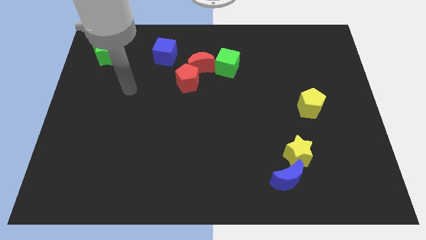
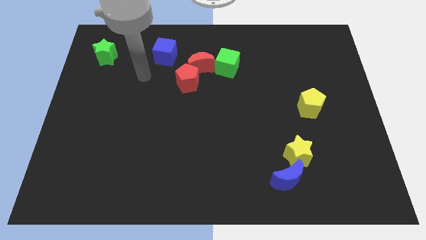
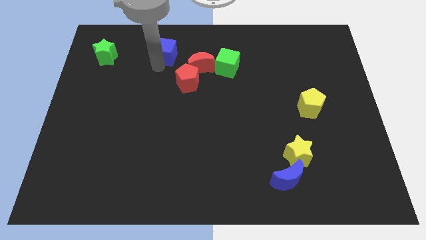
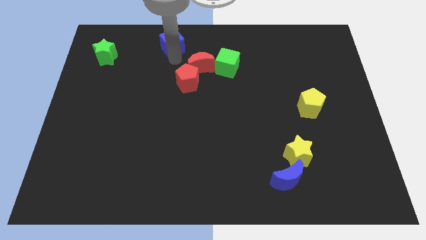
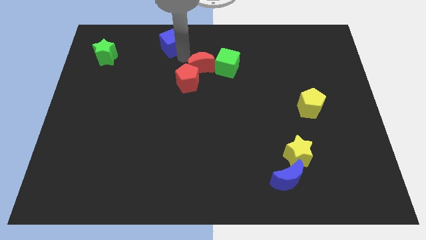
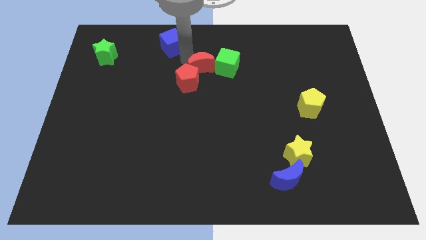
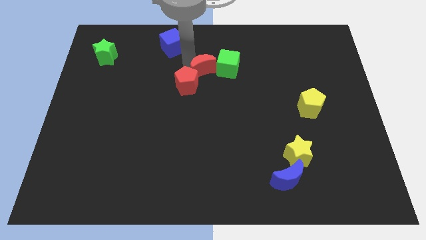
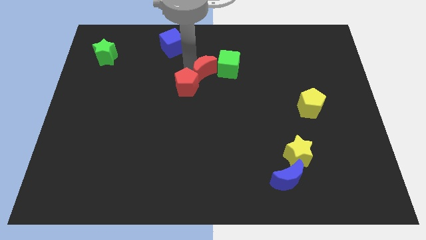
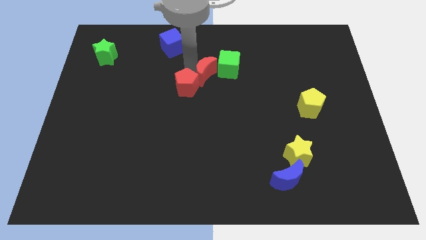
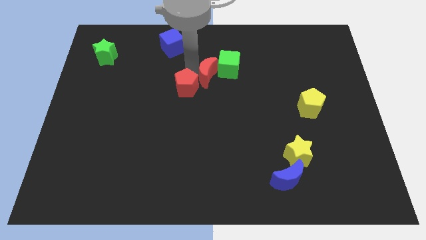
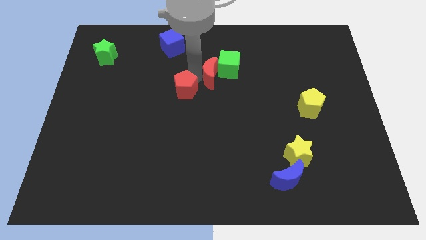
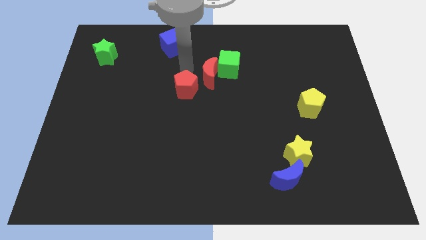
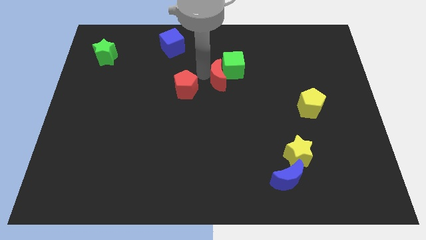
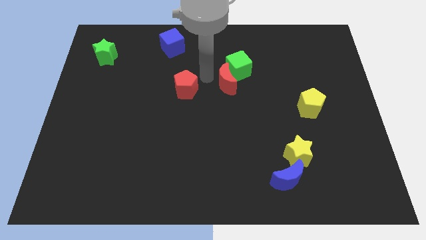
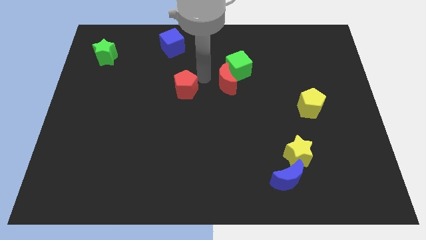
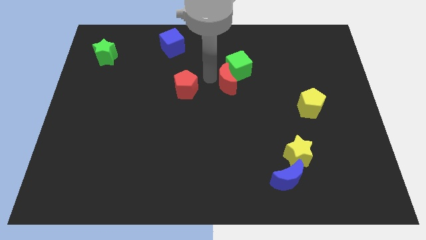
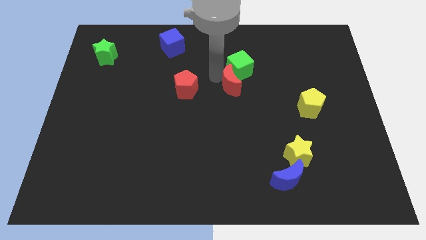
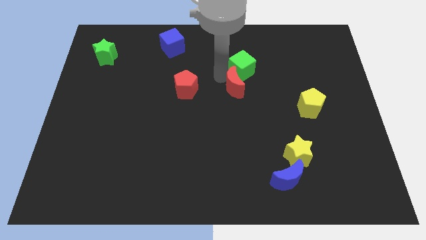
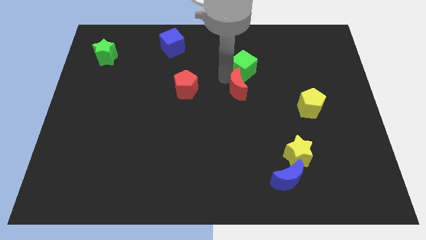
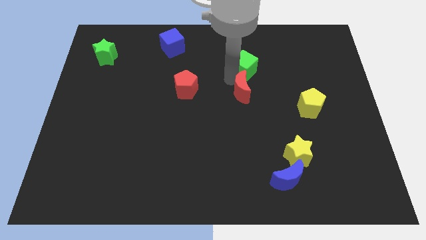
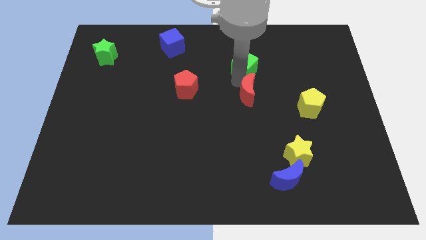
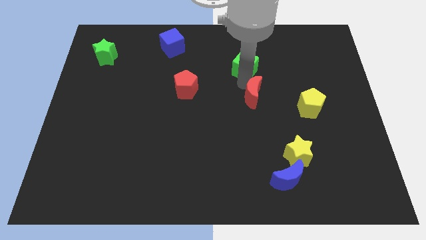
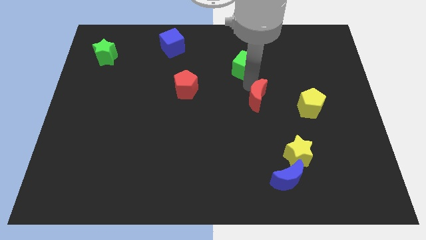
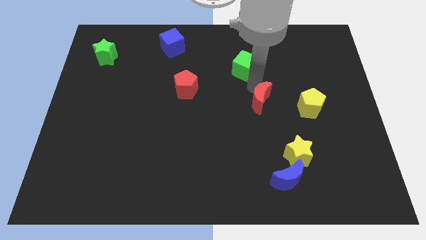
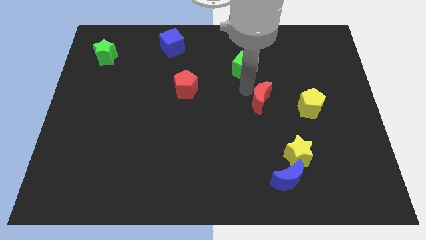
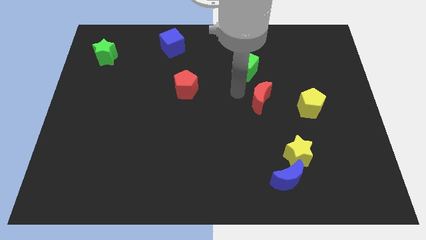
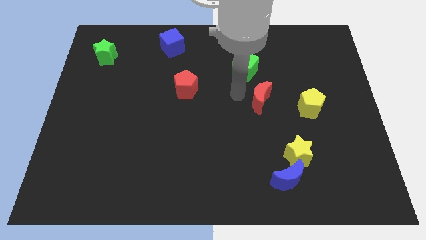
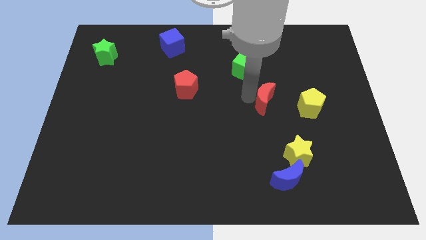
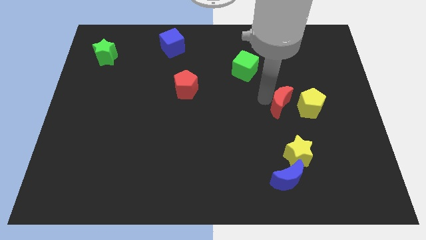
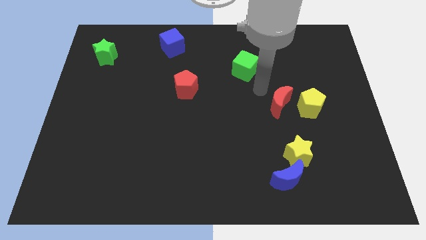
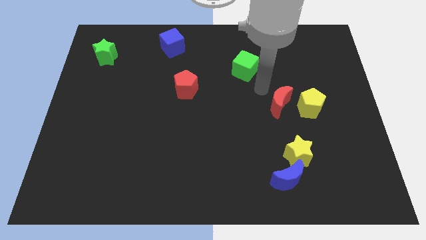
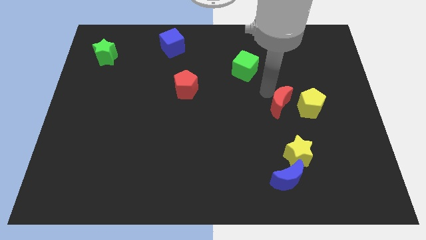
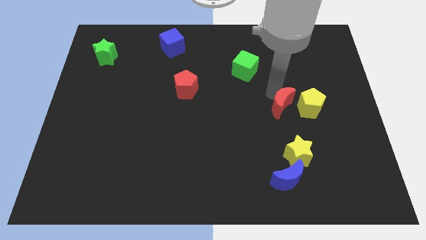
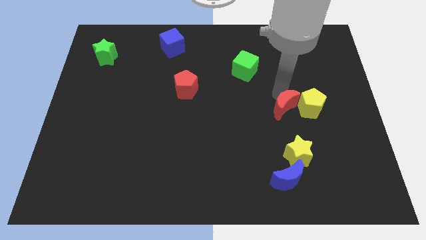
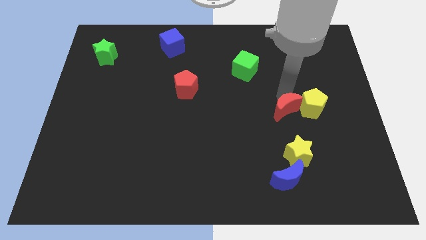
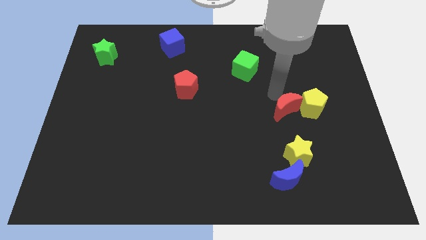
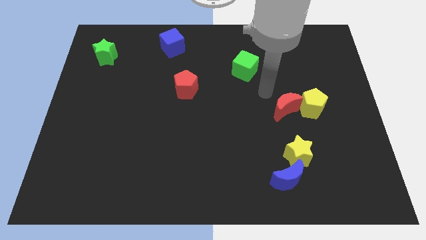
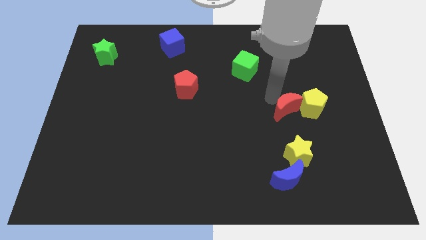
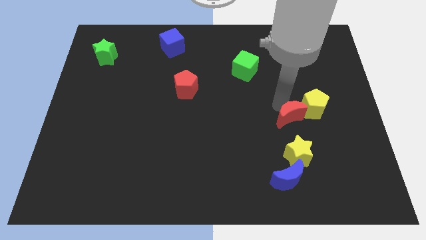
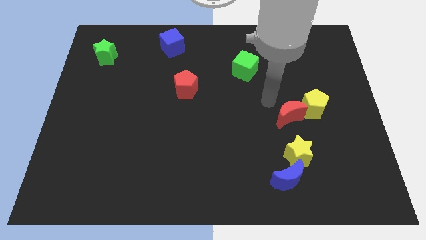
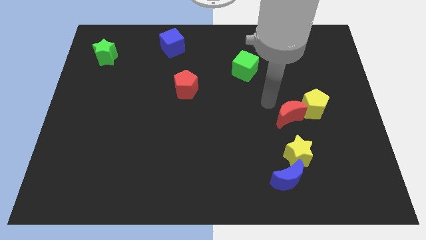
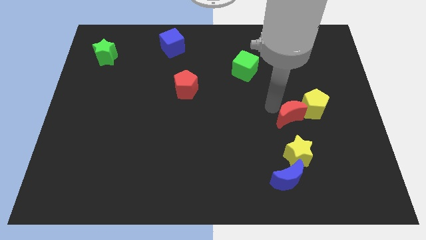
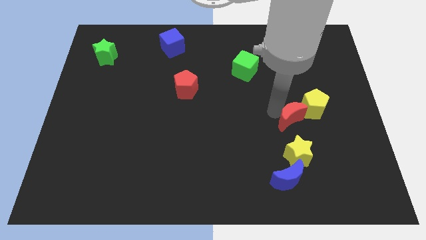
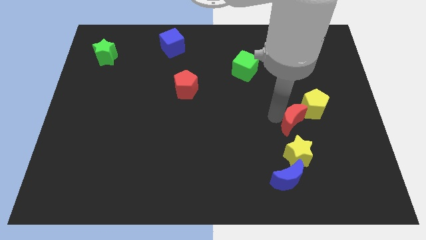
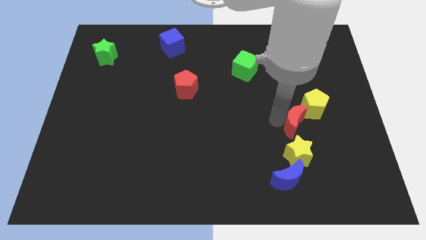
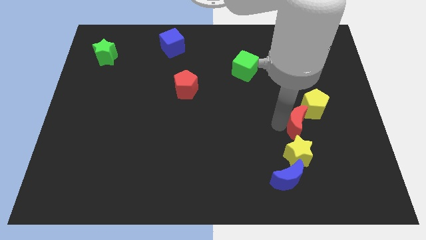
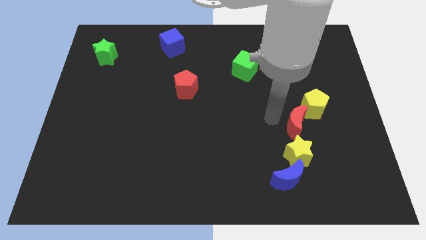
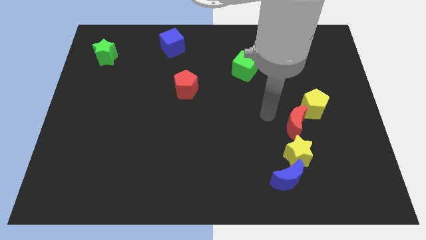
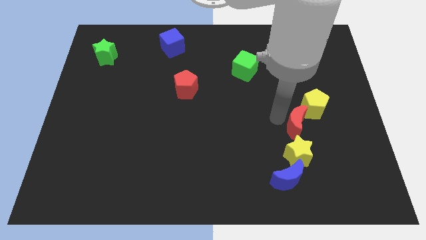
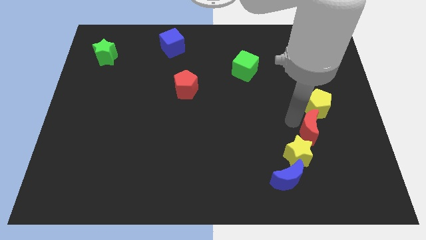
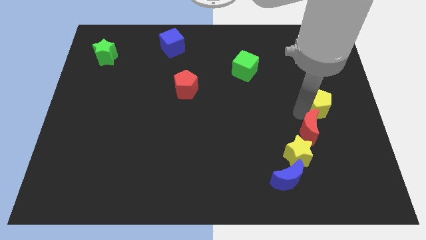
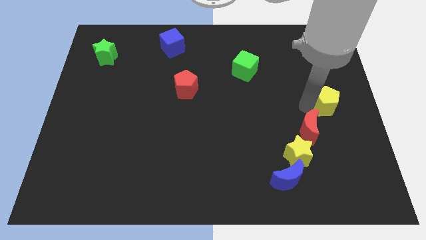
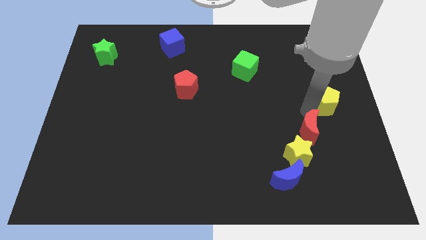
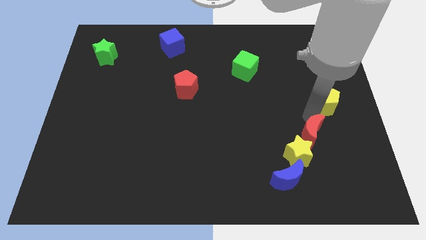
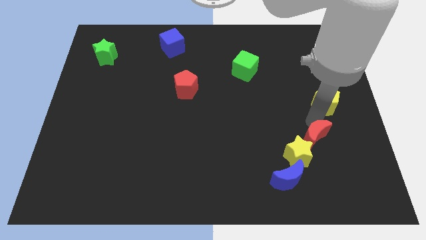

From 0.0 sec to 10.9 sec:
slide the red moon to the top right of the blue moon

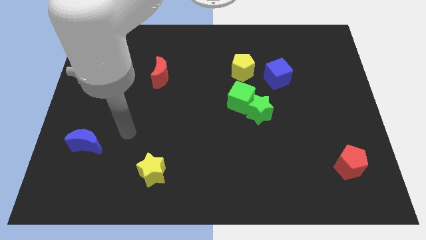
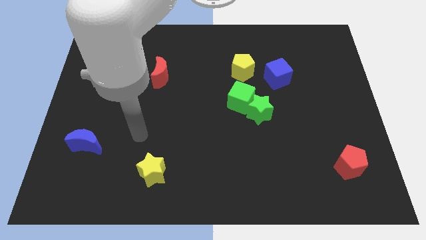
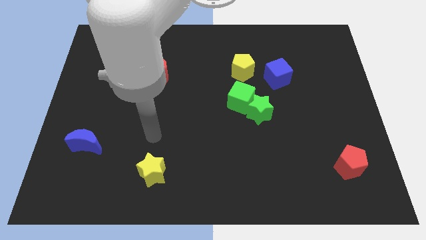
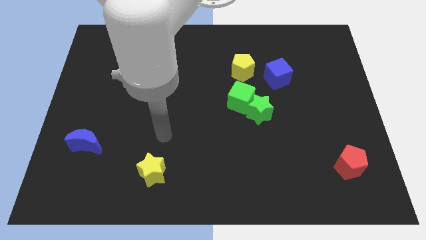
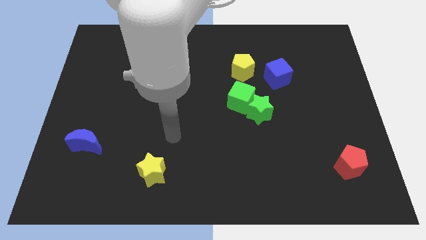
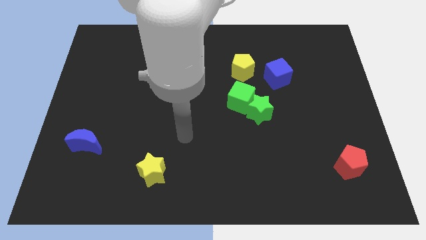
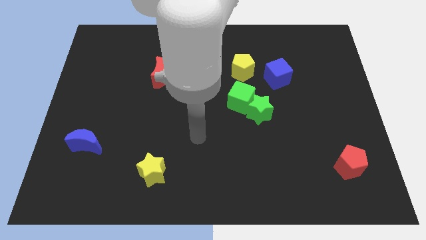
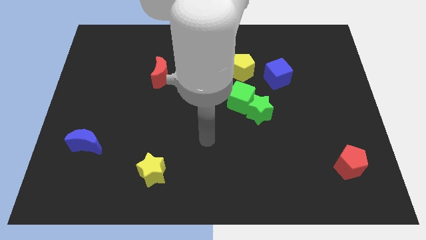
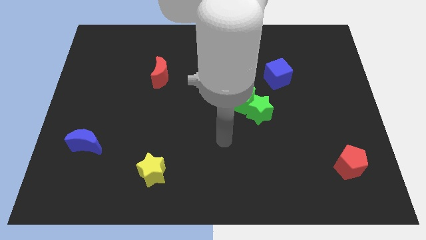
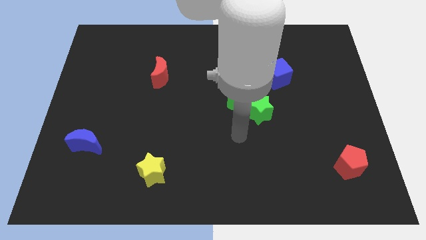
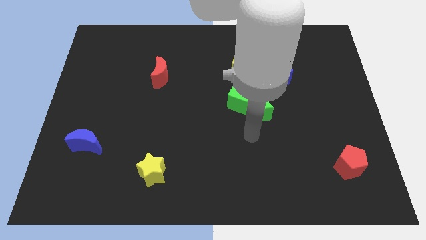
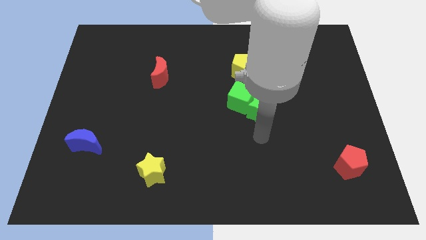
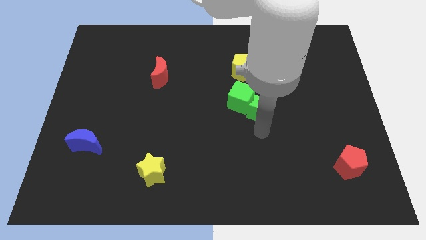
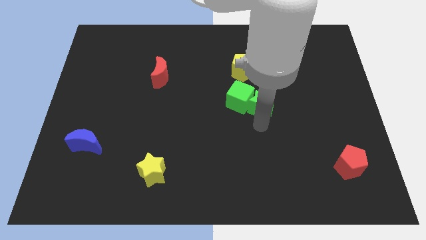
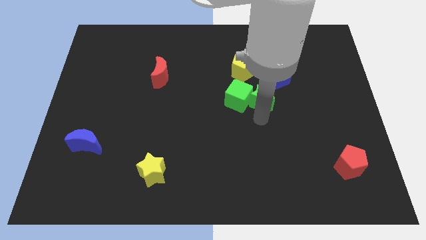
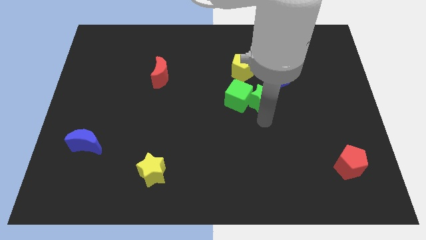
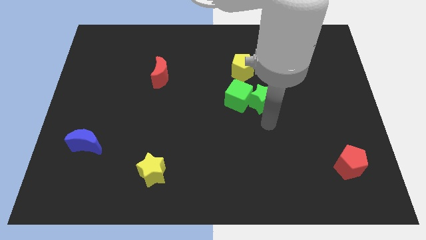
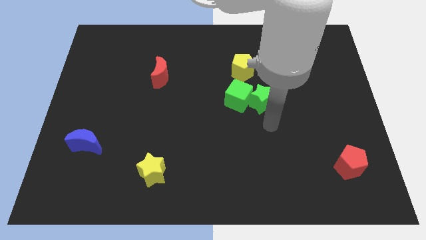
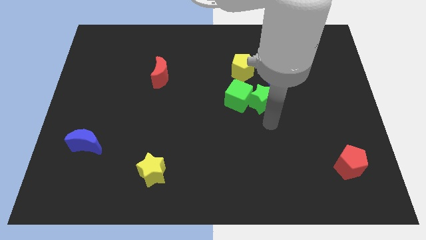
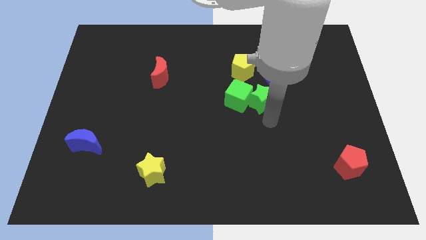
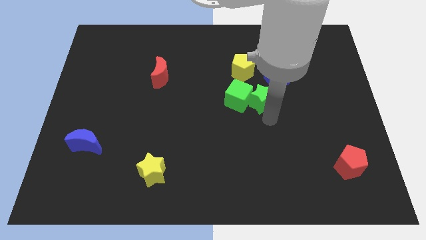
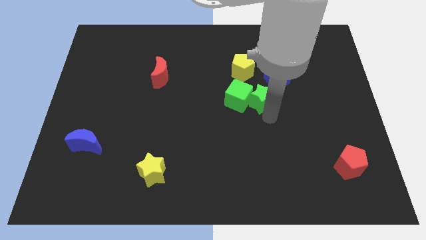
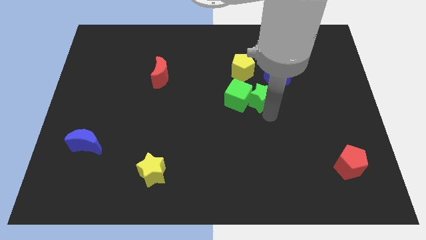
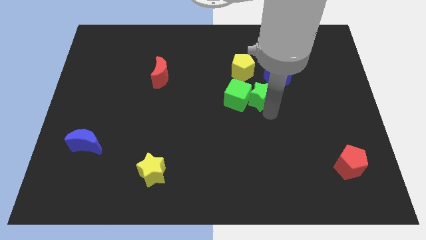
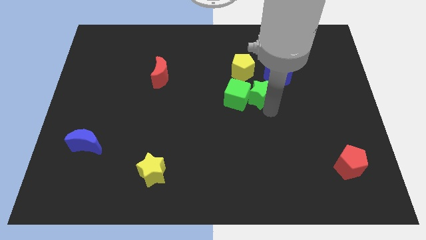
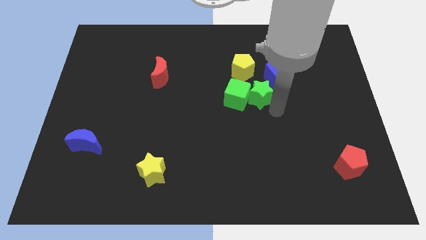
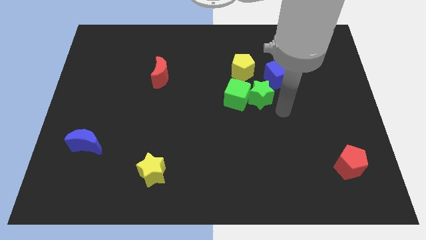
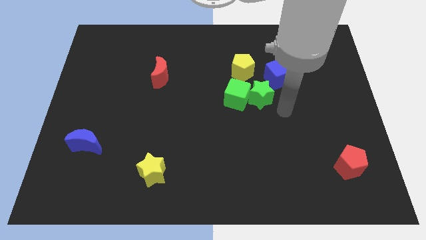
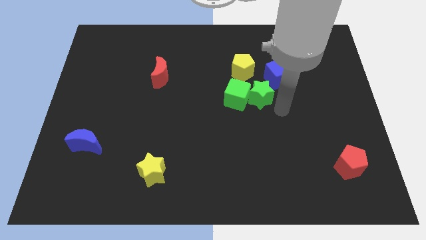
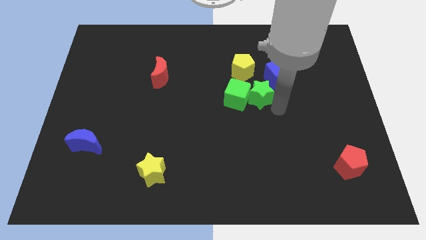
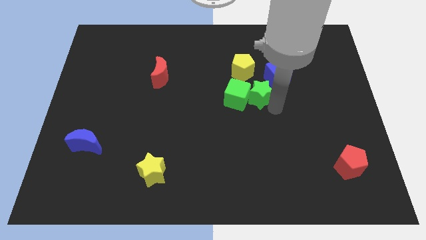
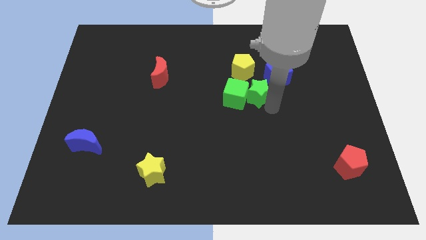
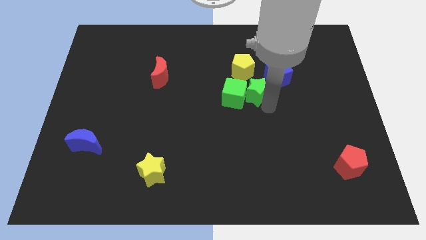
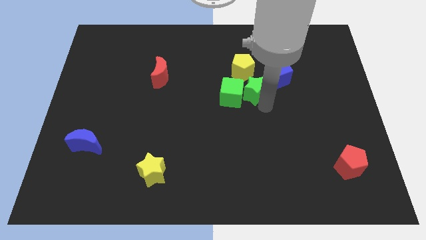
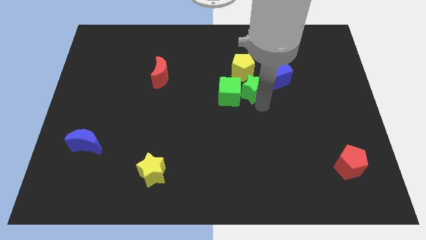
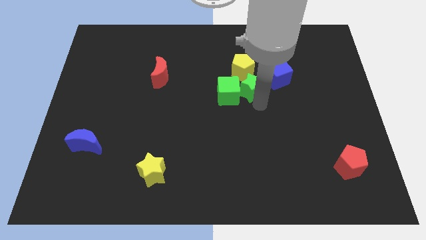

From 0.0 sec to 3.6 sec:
put the green star left of the blue cube
